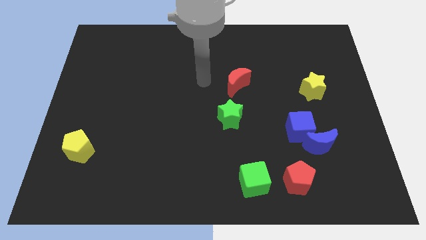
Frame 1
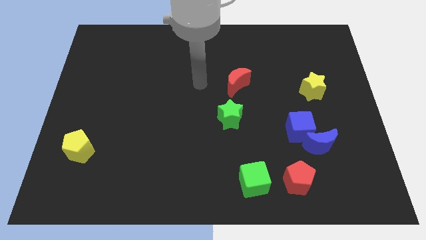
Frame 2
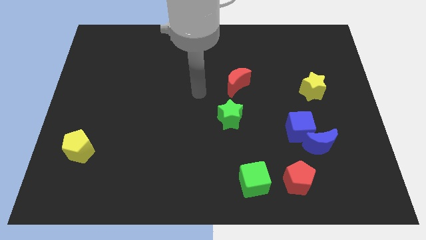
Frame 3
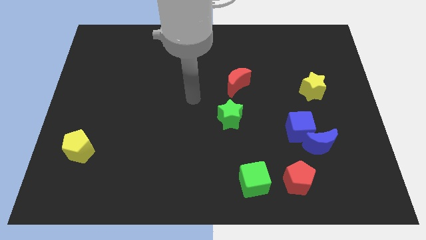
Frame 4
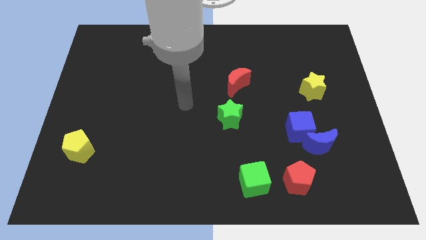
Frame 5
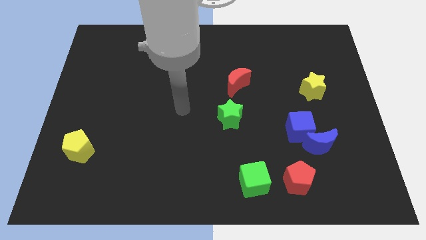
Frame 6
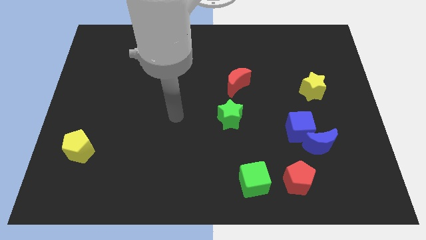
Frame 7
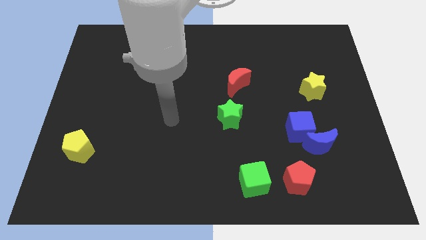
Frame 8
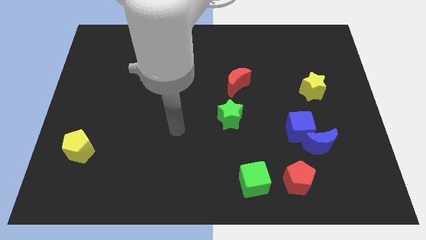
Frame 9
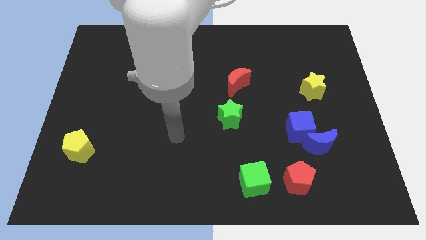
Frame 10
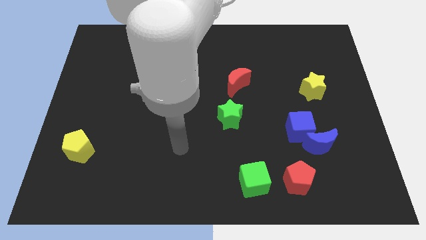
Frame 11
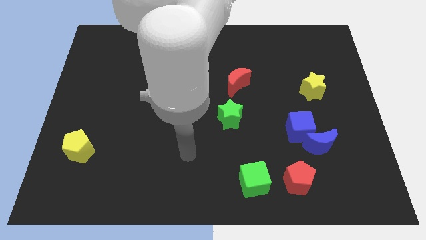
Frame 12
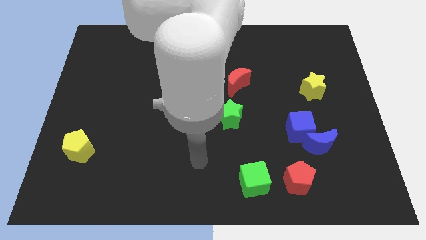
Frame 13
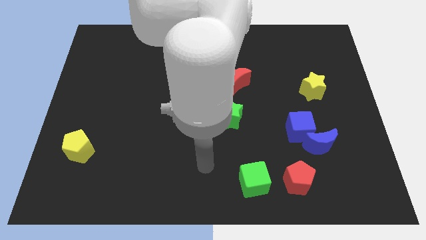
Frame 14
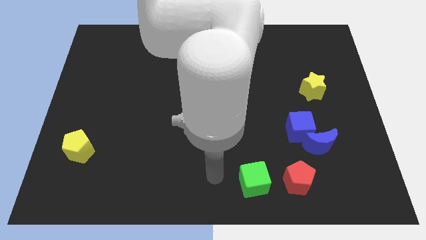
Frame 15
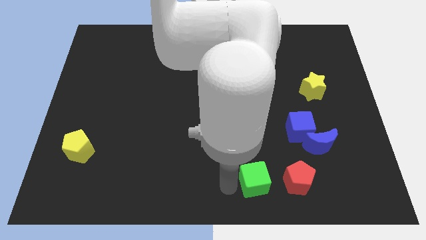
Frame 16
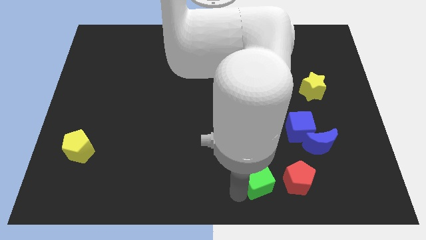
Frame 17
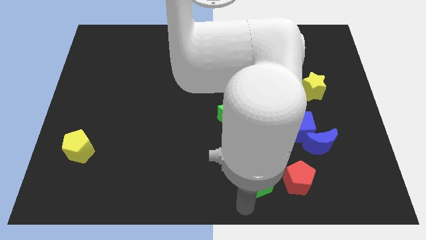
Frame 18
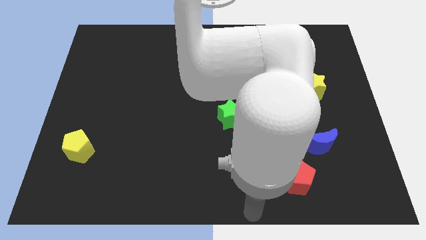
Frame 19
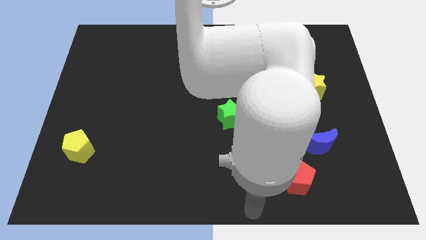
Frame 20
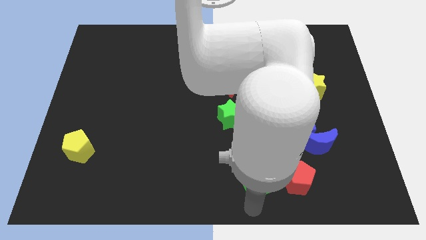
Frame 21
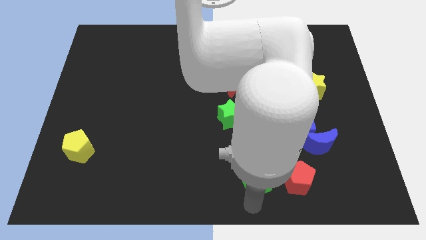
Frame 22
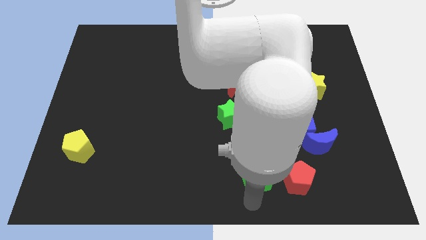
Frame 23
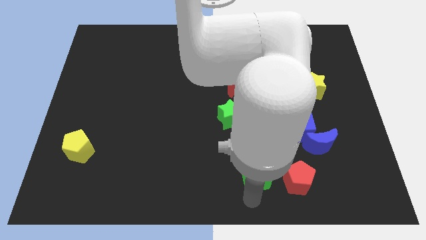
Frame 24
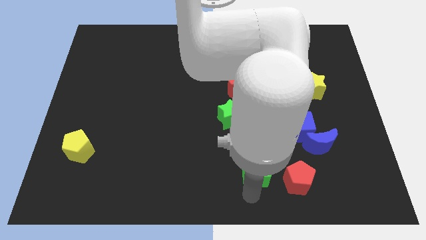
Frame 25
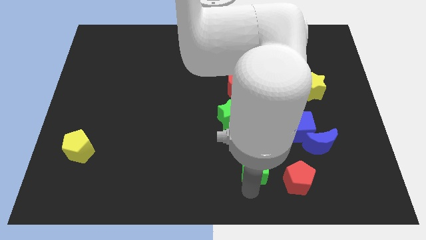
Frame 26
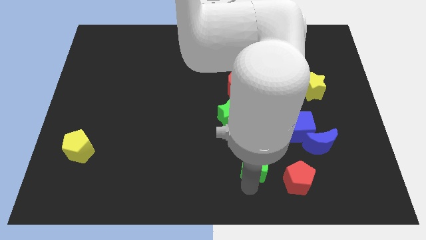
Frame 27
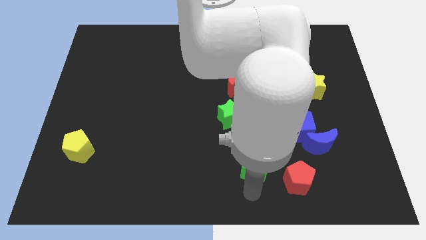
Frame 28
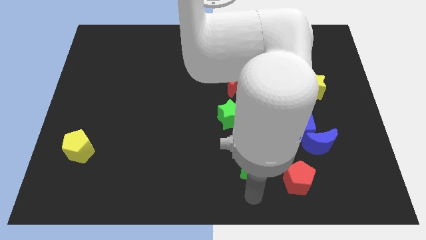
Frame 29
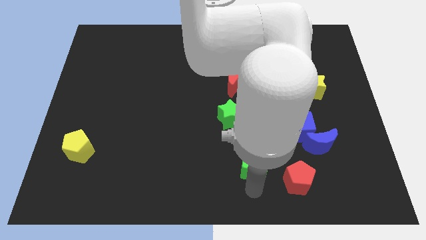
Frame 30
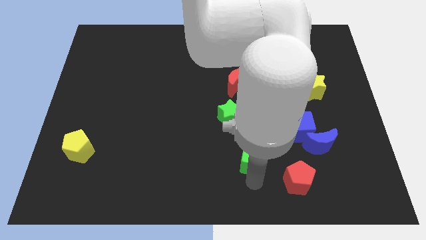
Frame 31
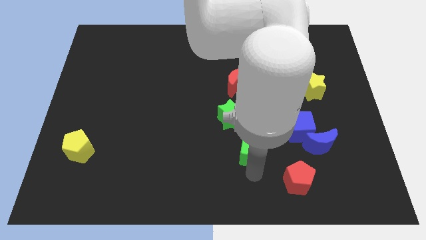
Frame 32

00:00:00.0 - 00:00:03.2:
slightly move the green cube up

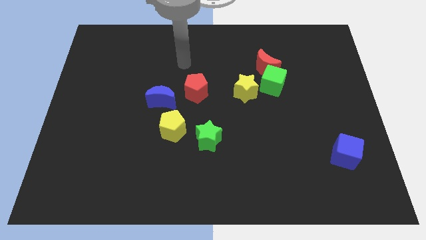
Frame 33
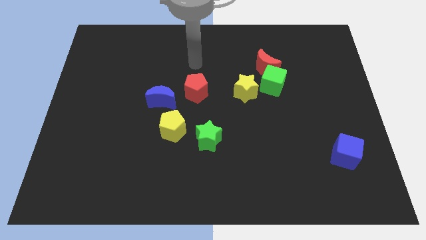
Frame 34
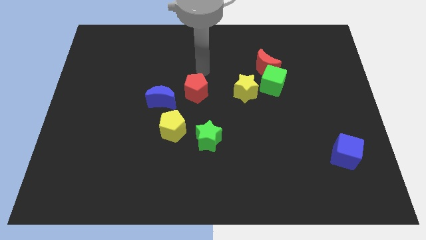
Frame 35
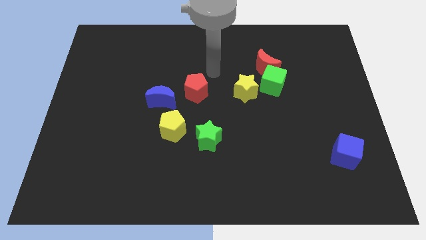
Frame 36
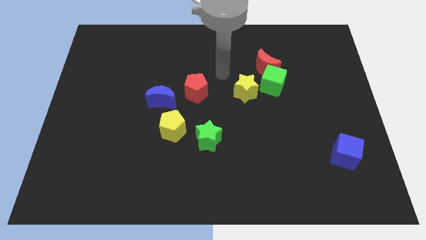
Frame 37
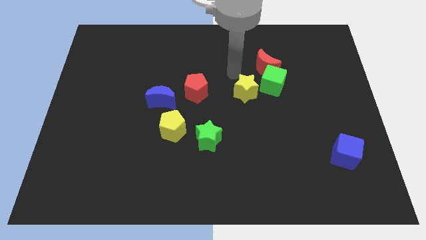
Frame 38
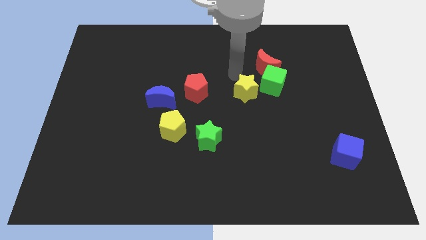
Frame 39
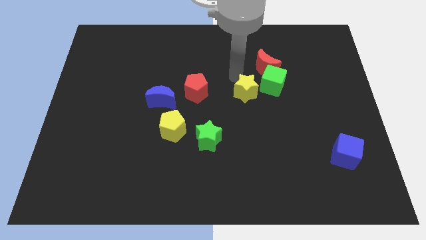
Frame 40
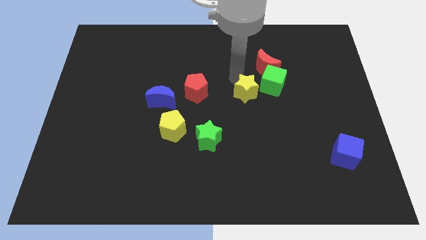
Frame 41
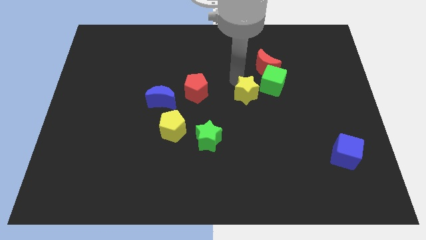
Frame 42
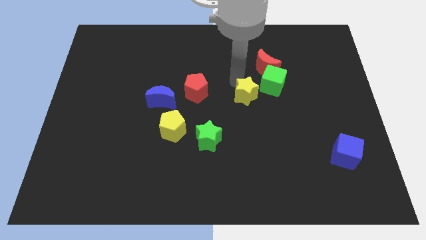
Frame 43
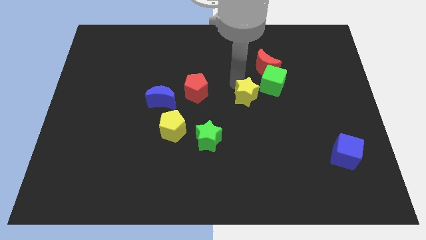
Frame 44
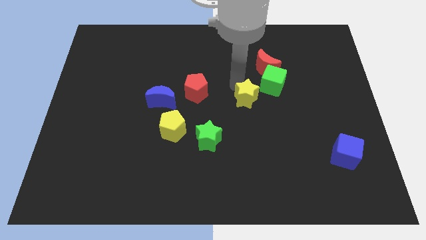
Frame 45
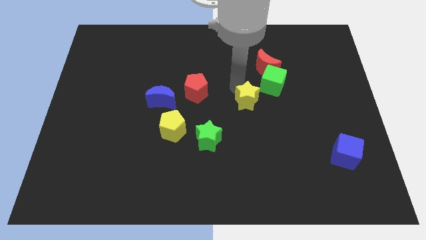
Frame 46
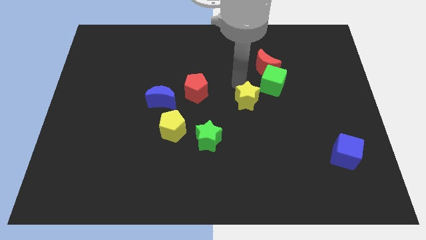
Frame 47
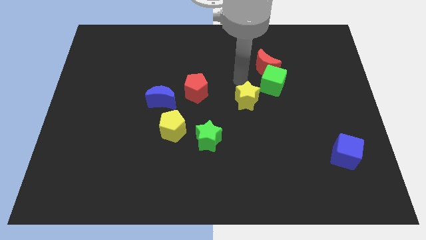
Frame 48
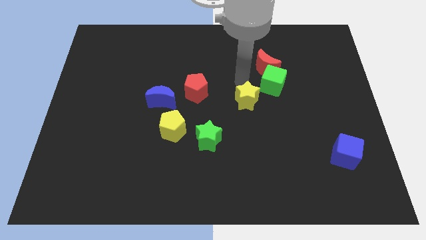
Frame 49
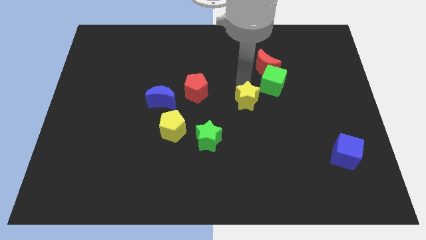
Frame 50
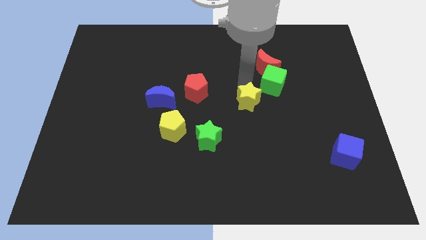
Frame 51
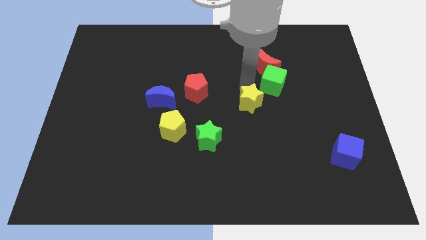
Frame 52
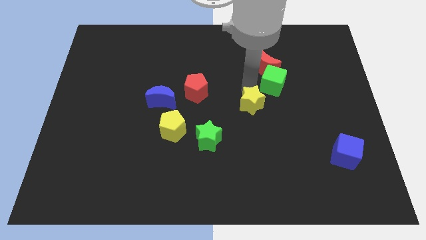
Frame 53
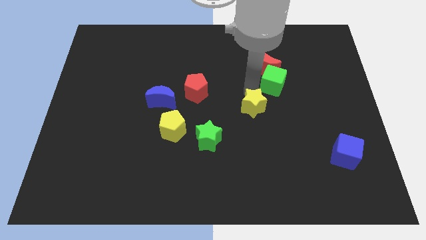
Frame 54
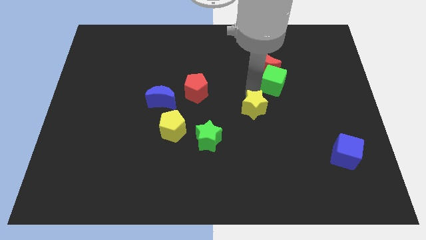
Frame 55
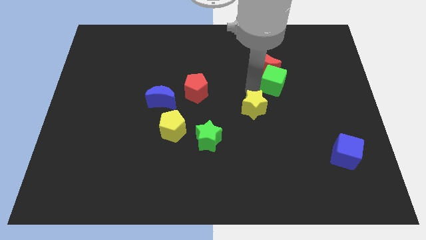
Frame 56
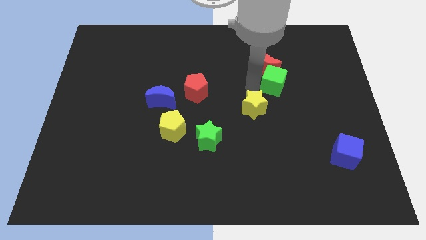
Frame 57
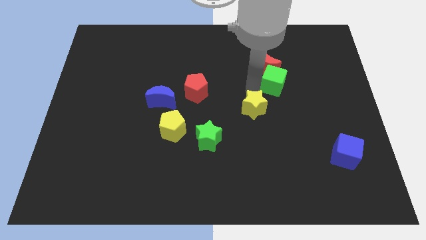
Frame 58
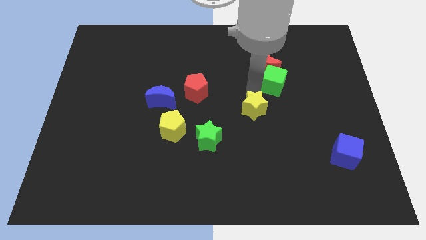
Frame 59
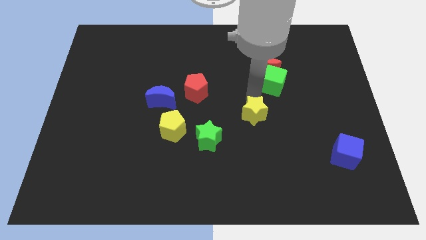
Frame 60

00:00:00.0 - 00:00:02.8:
move the yellow star somewhat down

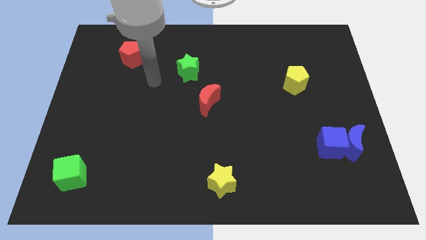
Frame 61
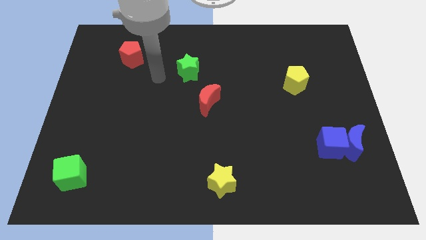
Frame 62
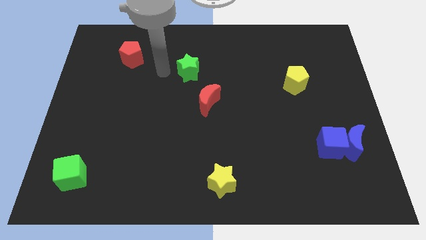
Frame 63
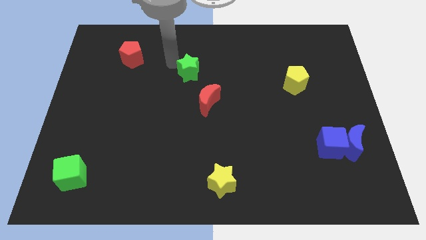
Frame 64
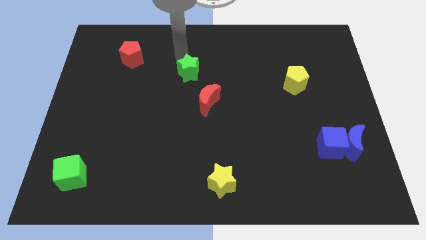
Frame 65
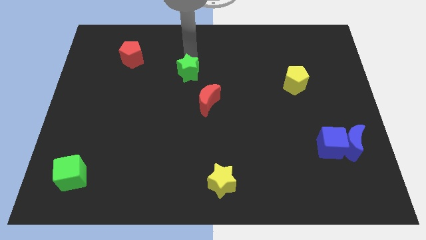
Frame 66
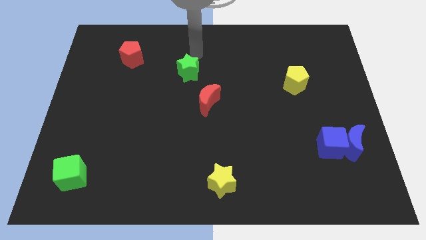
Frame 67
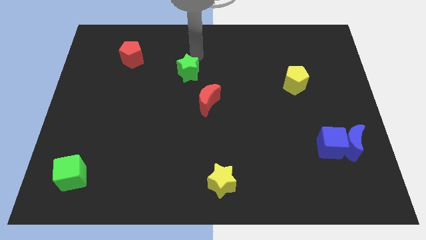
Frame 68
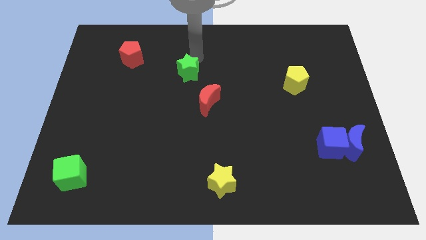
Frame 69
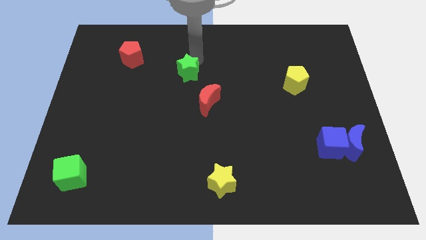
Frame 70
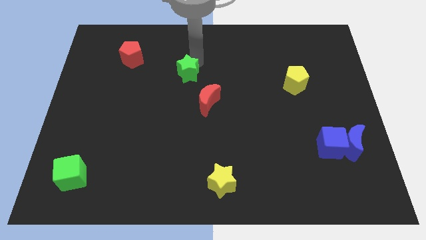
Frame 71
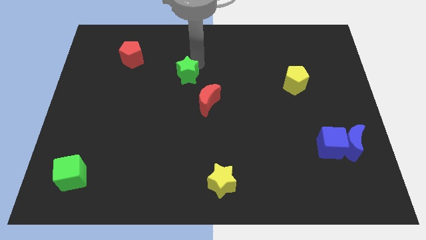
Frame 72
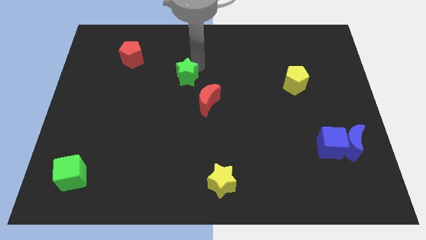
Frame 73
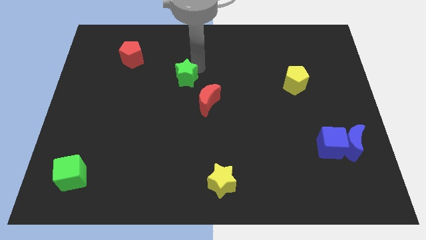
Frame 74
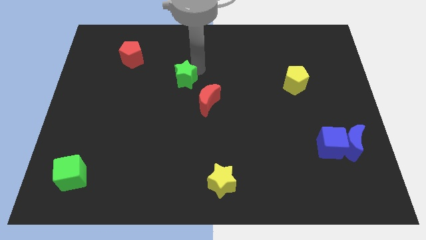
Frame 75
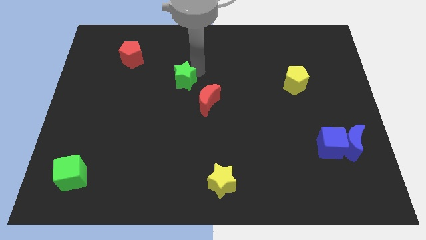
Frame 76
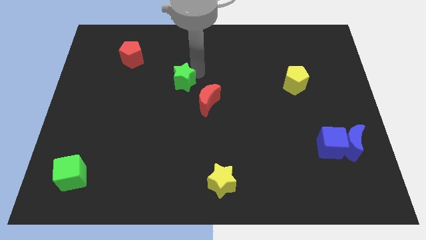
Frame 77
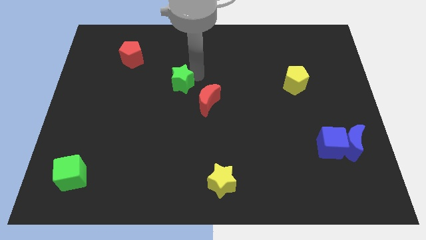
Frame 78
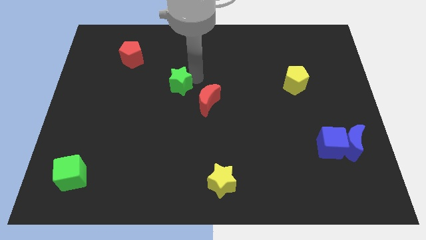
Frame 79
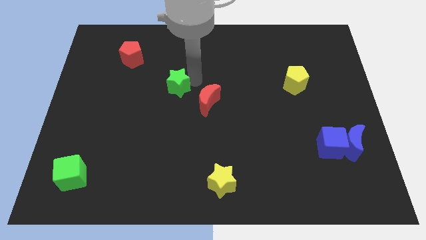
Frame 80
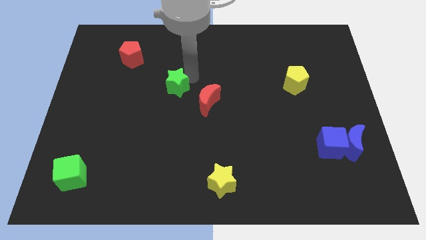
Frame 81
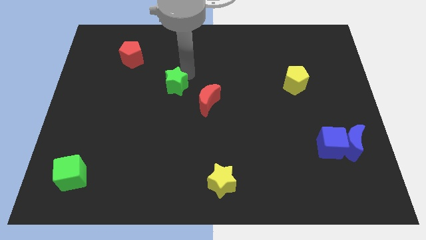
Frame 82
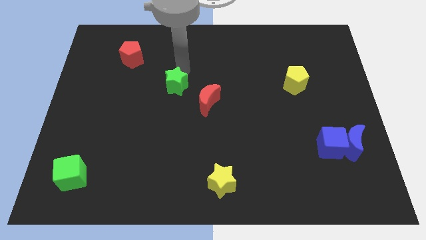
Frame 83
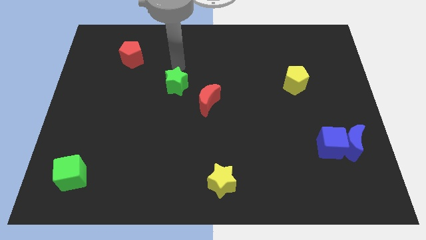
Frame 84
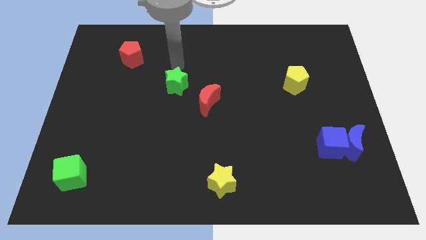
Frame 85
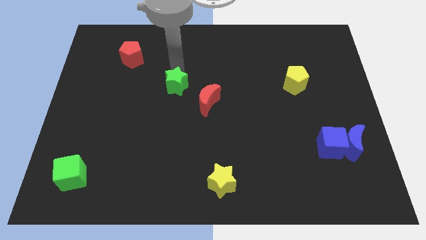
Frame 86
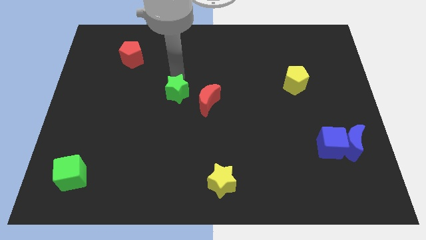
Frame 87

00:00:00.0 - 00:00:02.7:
slide the green star downwards a little
